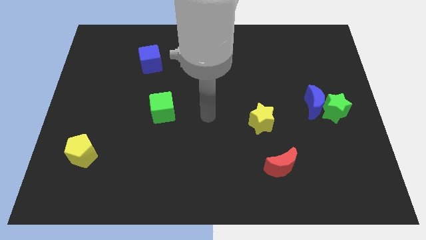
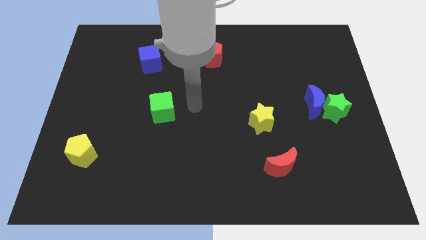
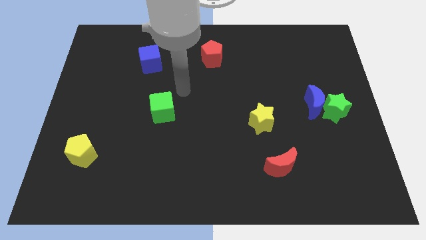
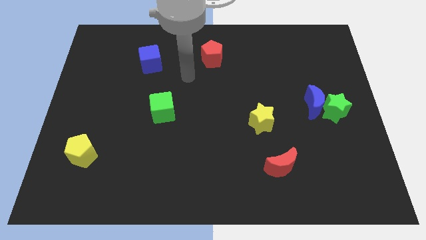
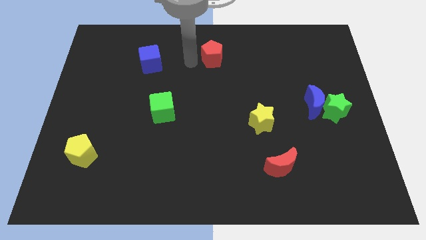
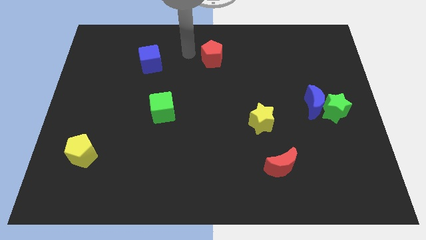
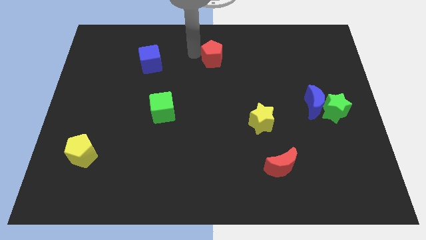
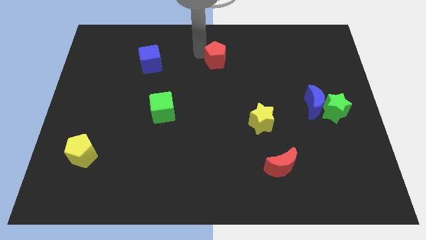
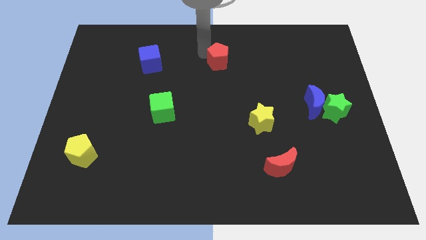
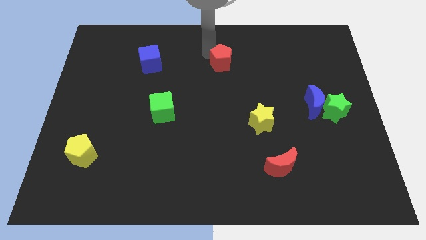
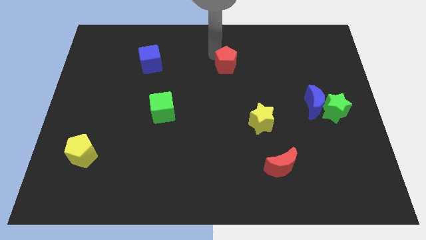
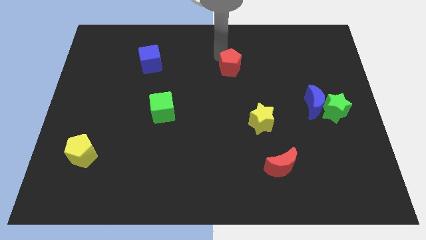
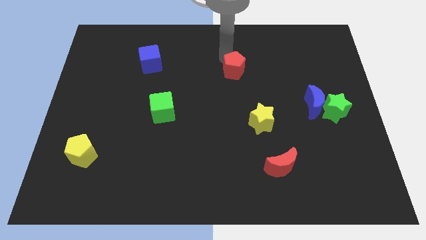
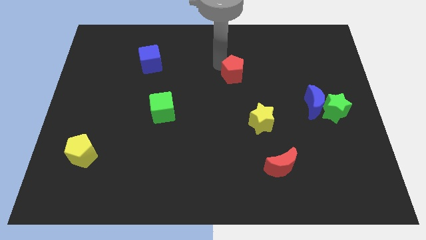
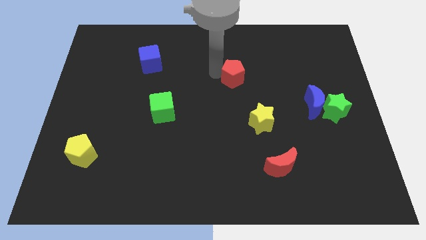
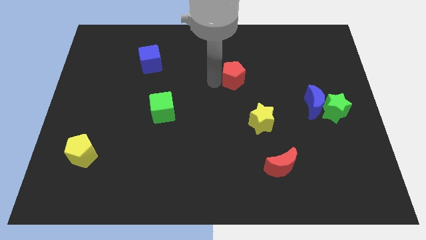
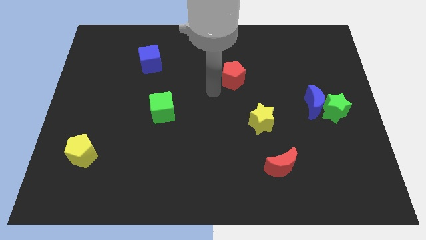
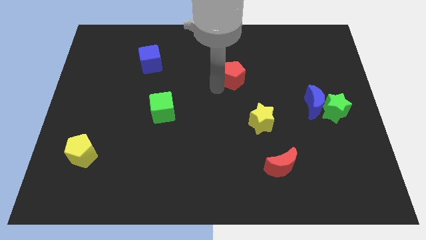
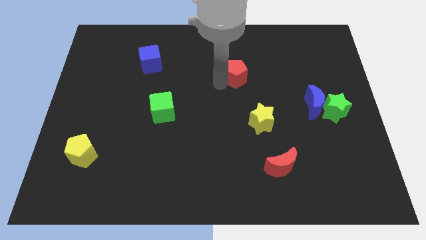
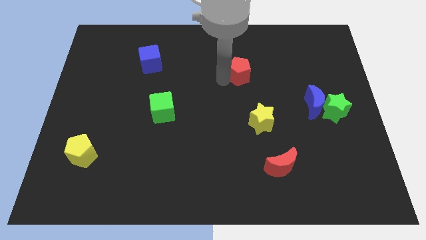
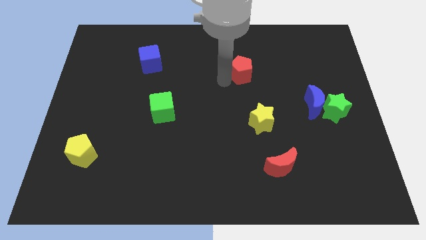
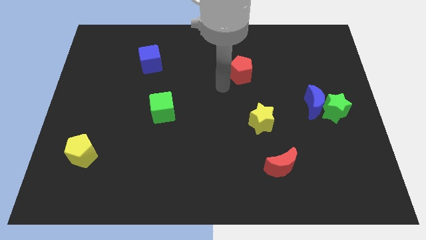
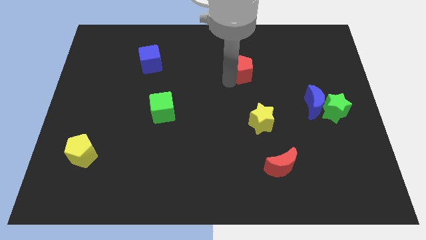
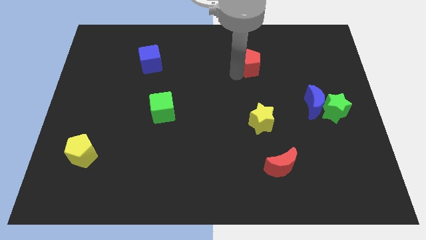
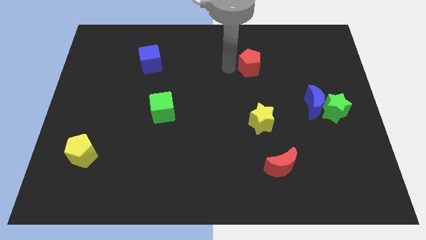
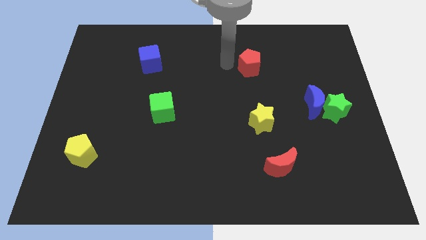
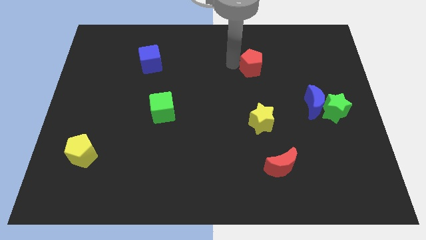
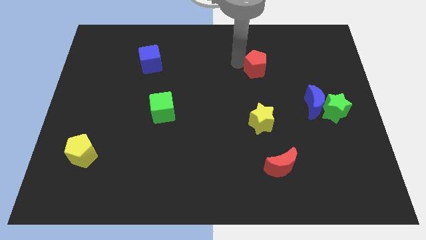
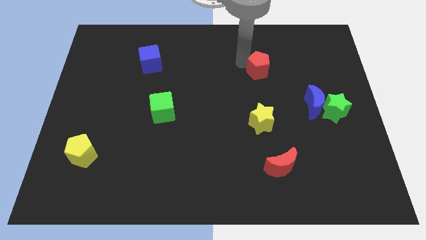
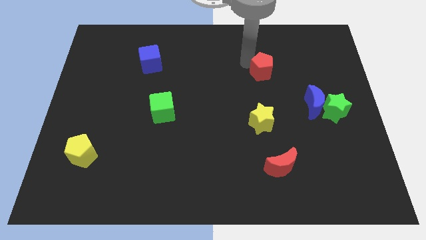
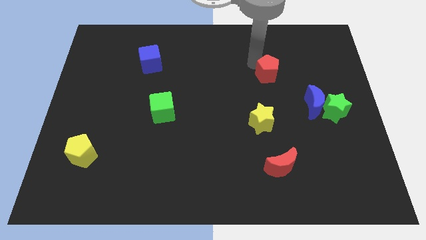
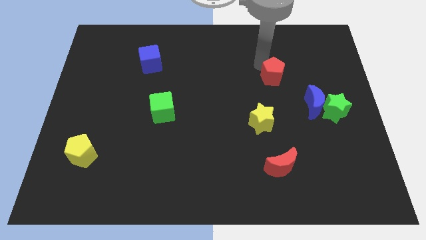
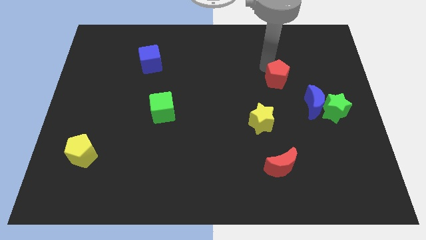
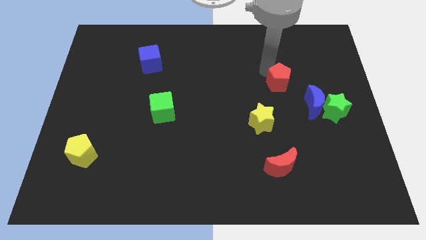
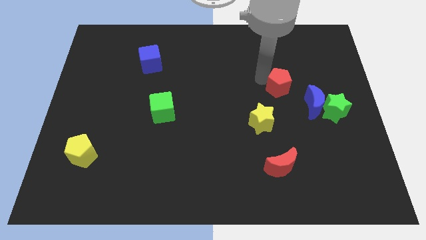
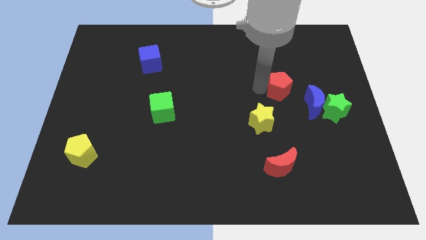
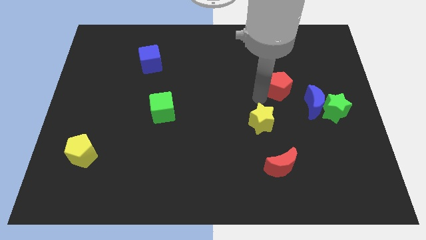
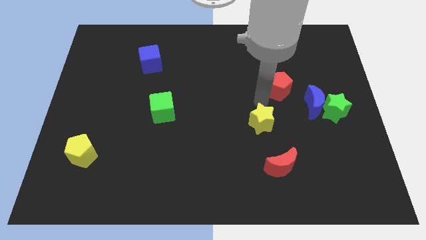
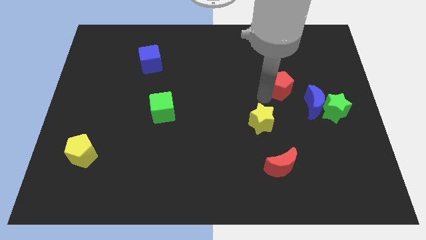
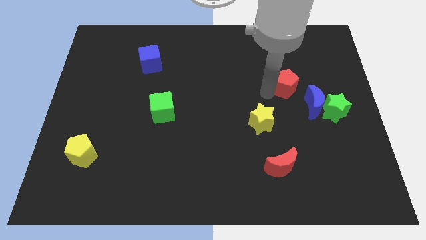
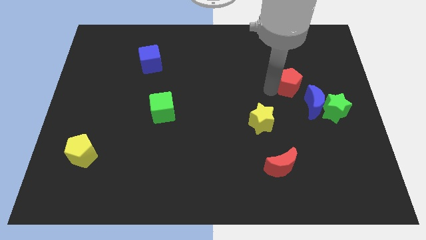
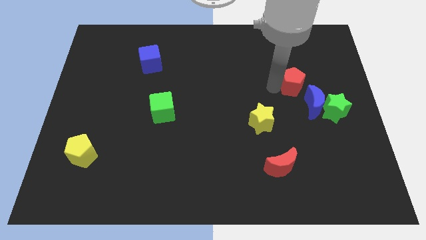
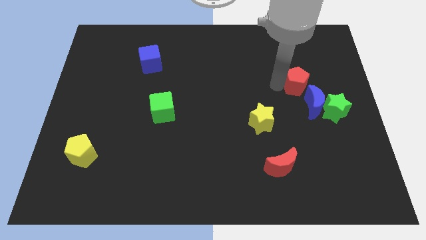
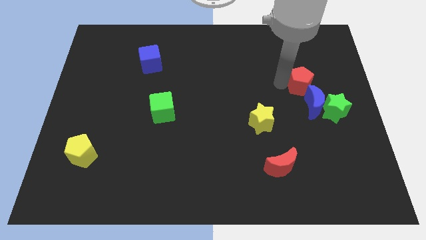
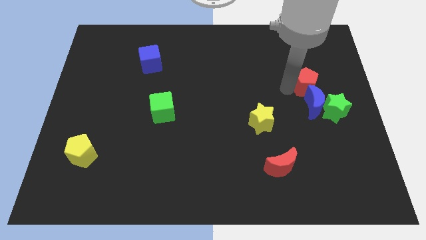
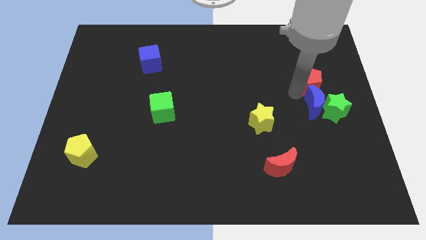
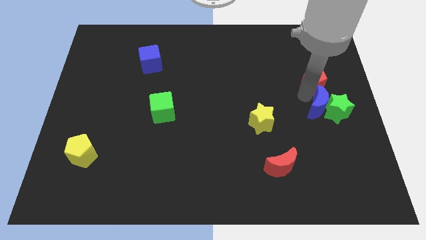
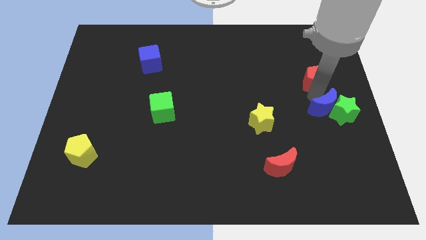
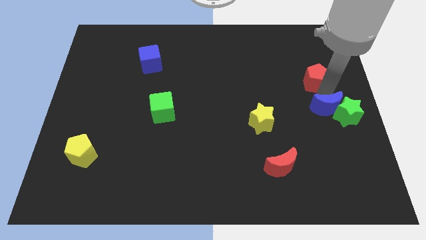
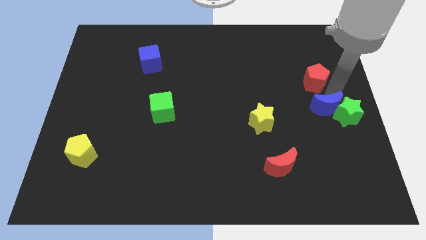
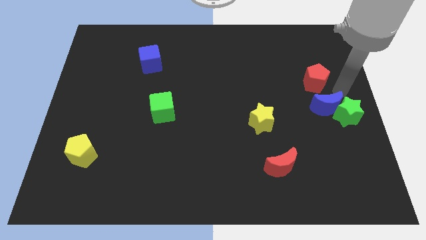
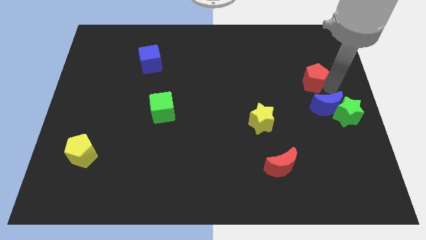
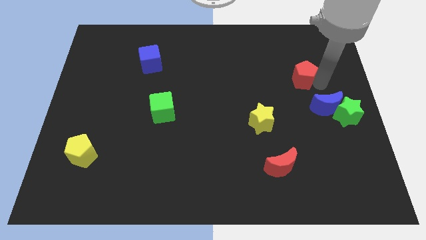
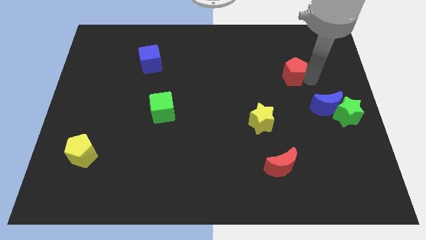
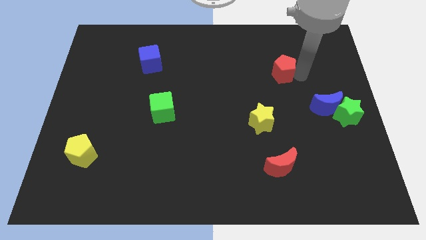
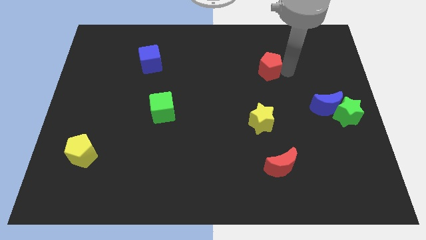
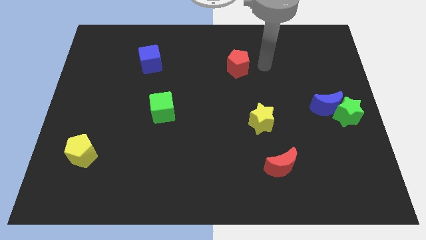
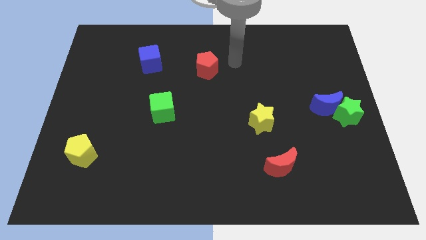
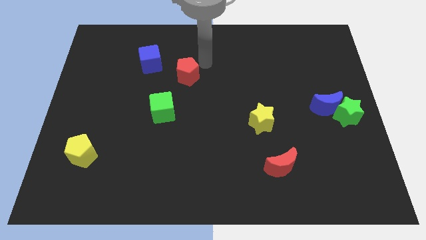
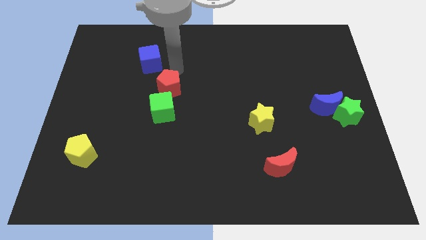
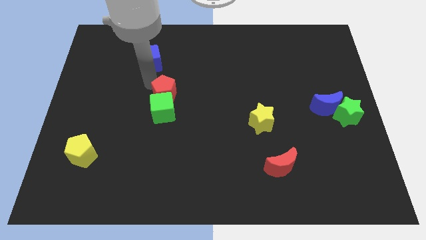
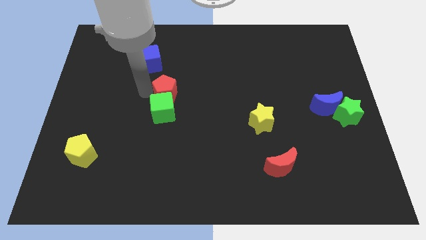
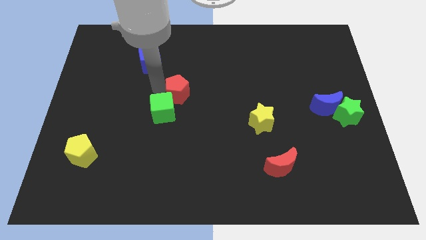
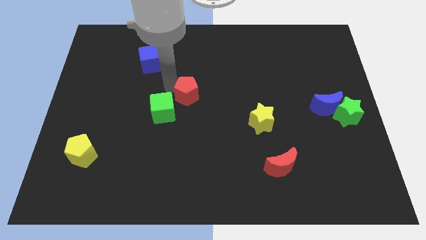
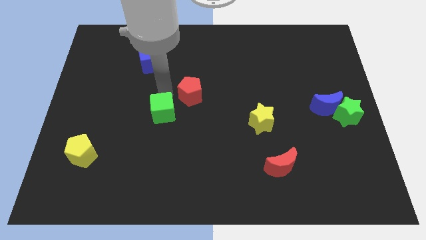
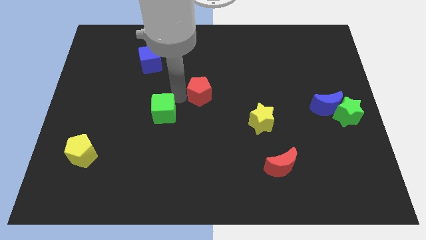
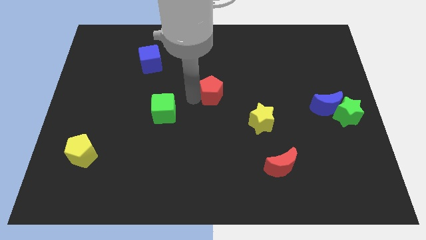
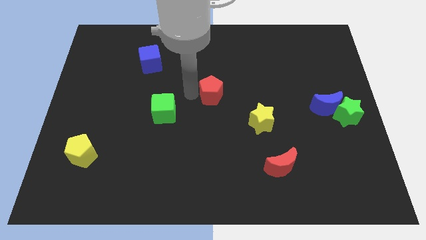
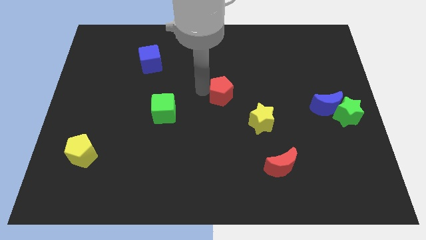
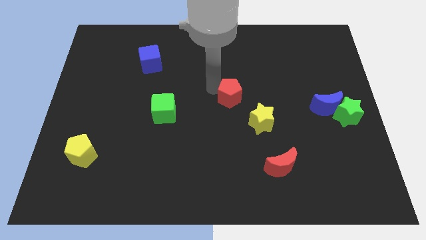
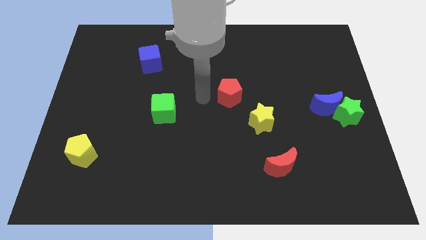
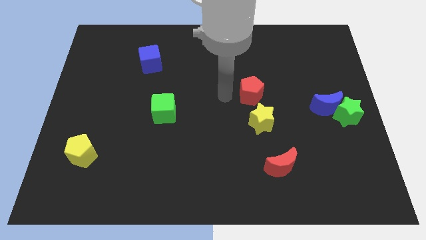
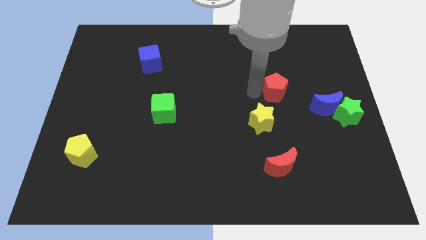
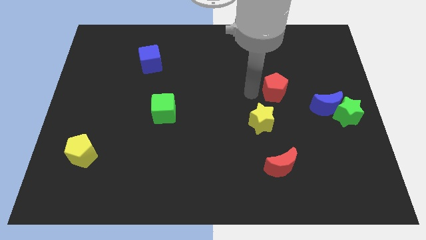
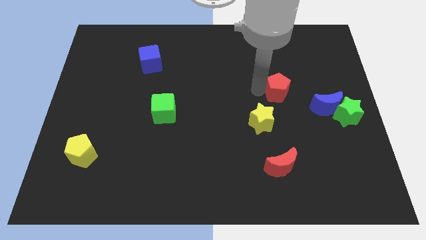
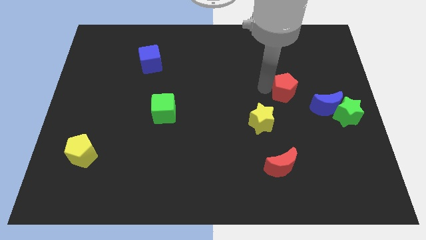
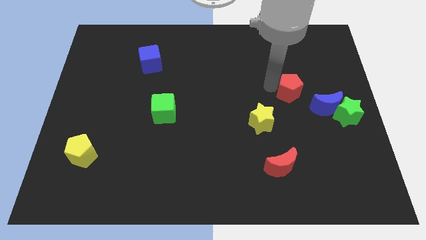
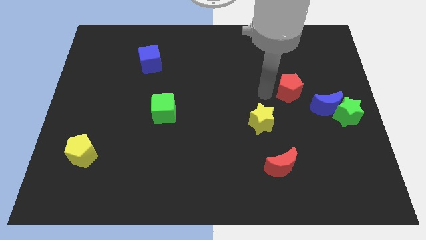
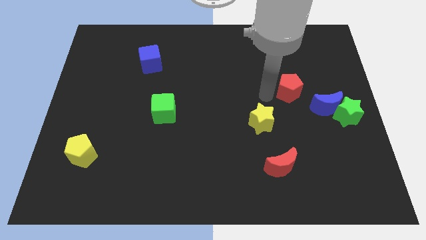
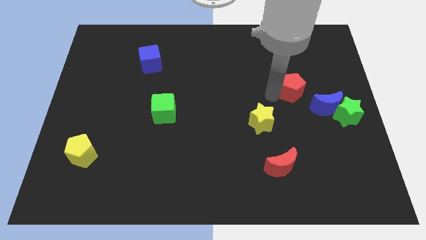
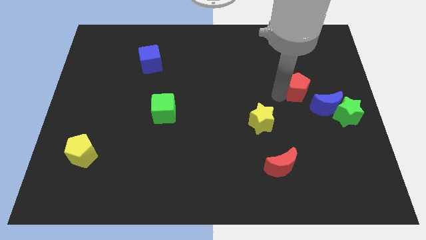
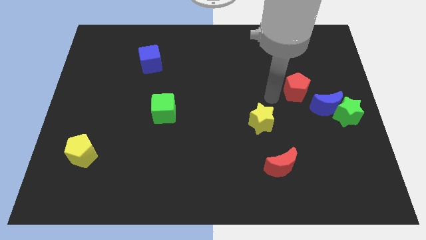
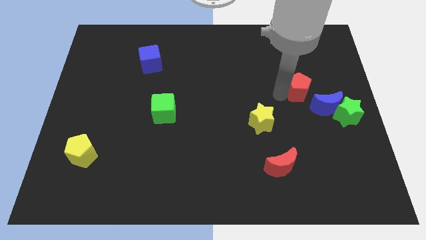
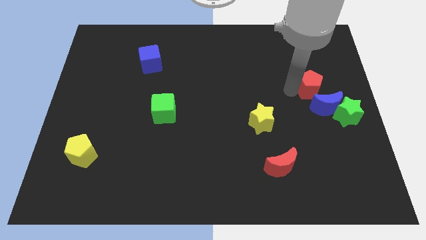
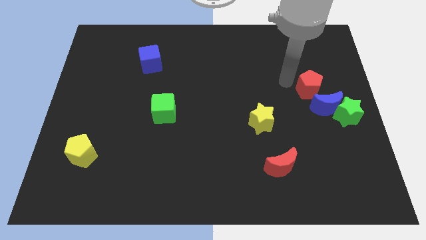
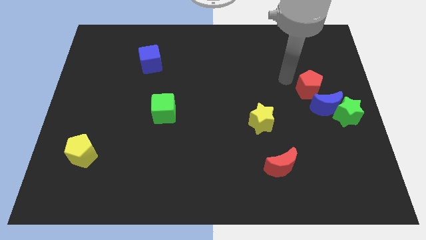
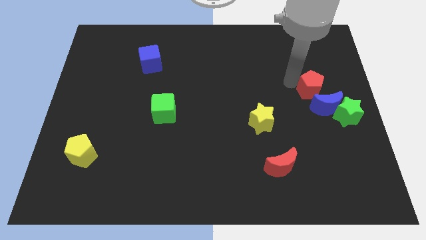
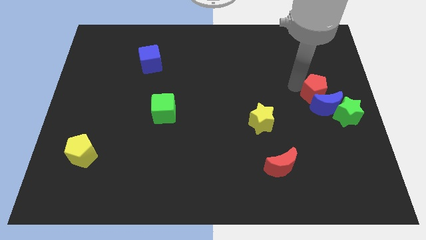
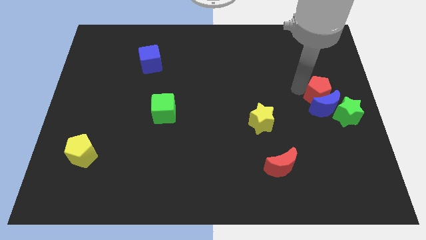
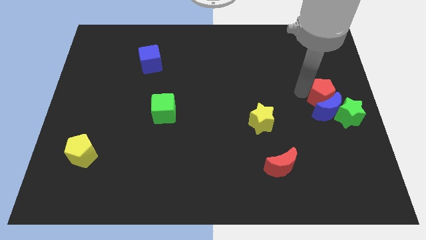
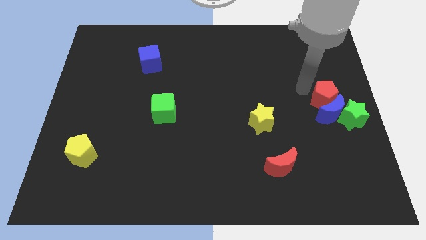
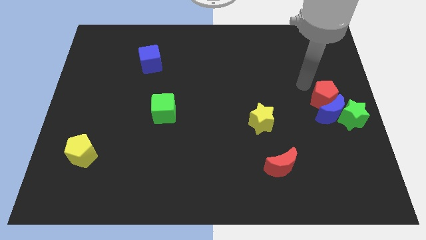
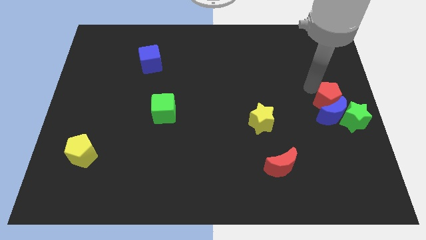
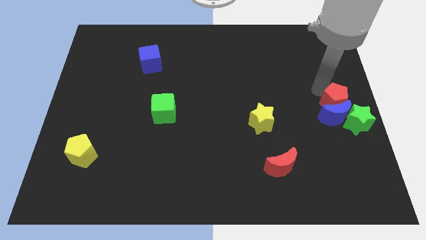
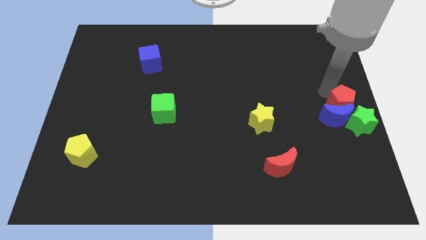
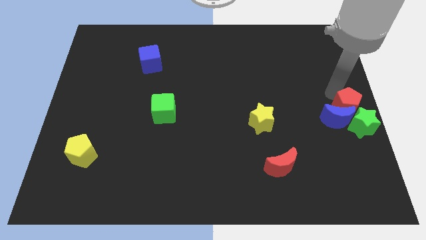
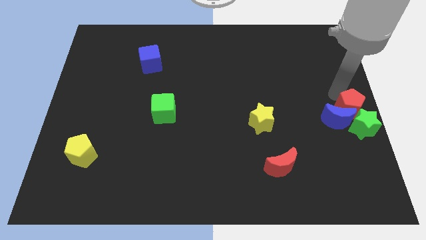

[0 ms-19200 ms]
put the red pentagon close to the green star
